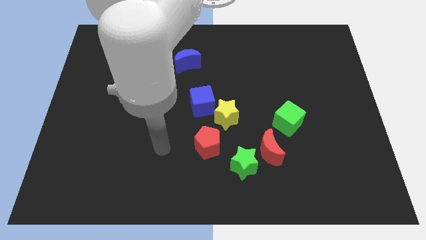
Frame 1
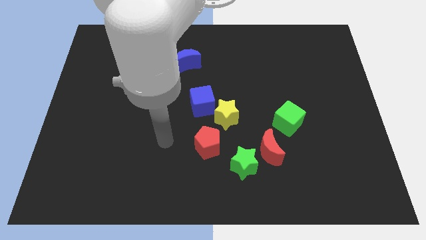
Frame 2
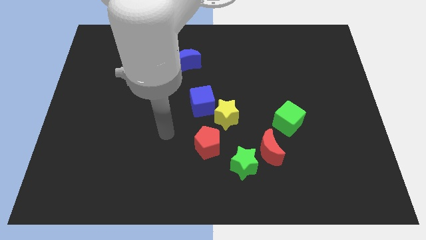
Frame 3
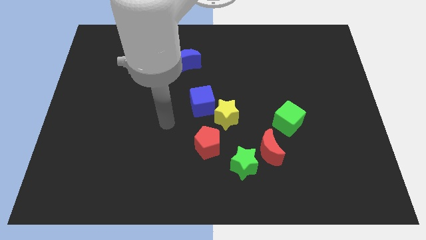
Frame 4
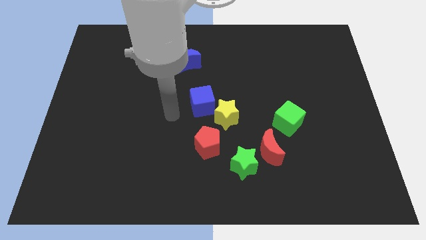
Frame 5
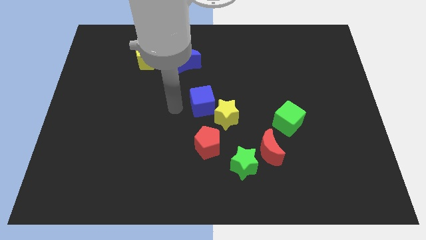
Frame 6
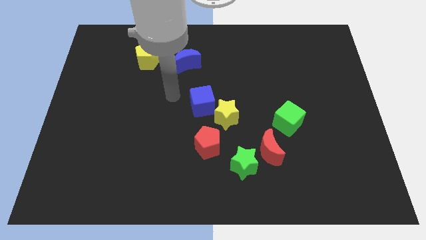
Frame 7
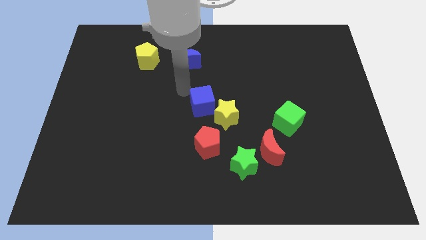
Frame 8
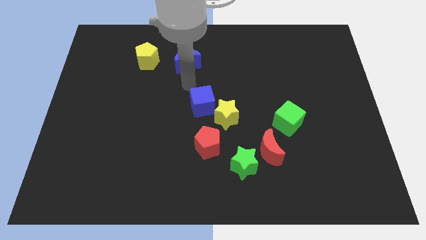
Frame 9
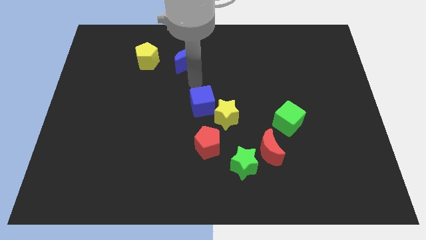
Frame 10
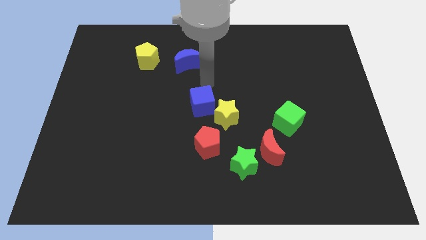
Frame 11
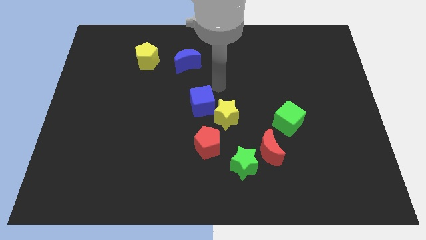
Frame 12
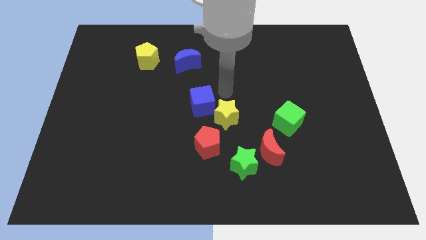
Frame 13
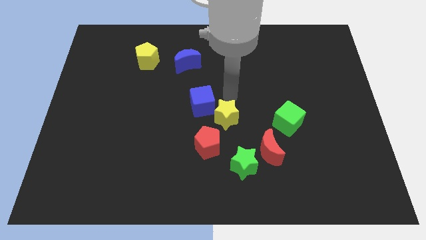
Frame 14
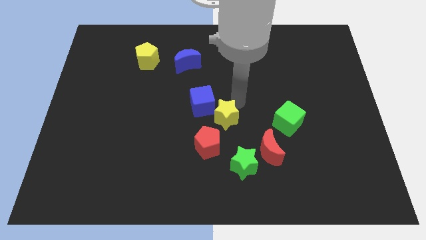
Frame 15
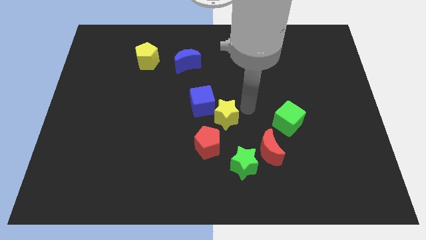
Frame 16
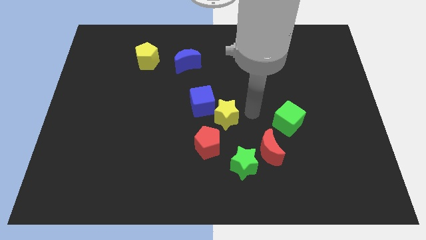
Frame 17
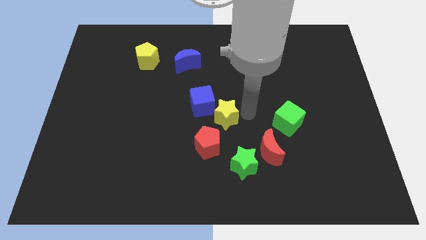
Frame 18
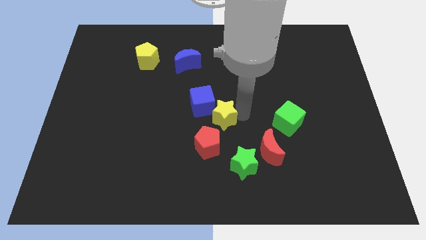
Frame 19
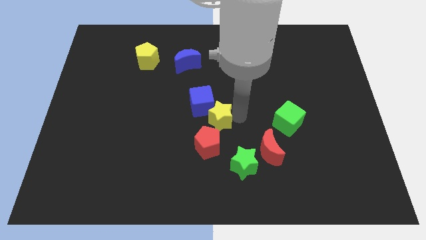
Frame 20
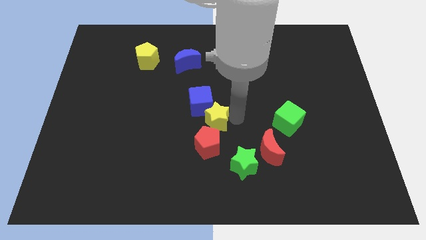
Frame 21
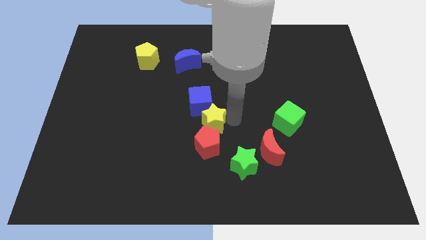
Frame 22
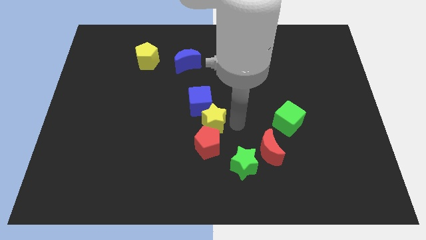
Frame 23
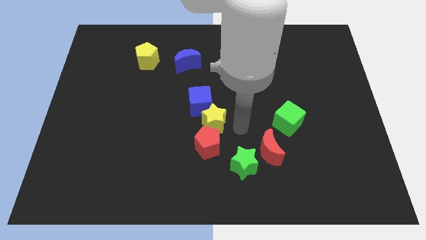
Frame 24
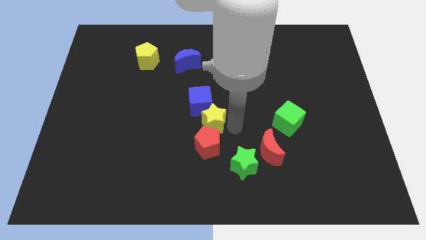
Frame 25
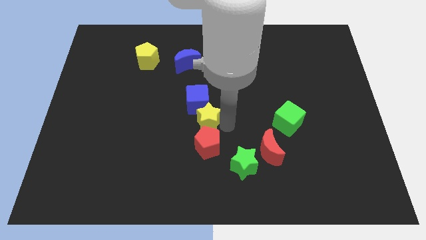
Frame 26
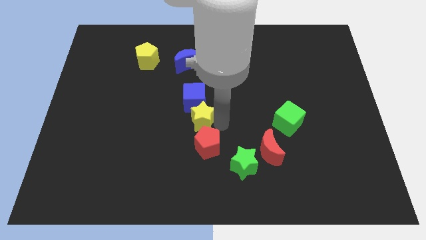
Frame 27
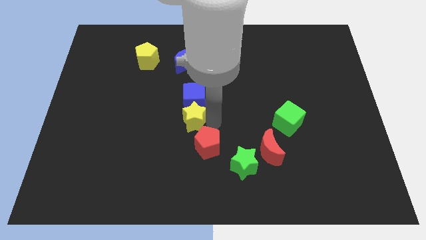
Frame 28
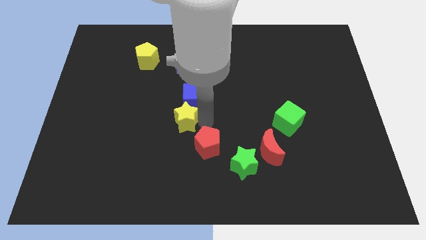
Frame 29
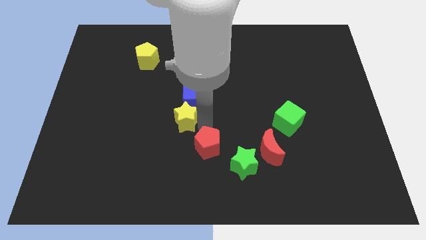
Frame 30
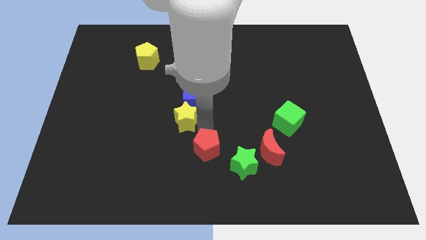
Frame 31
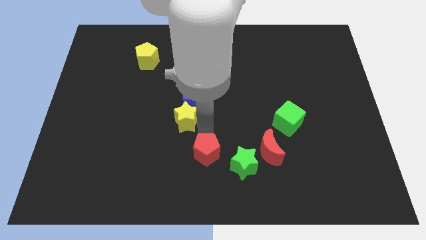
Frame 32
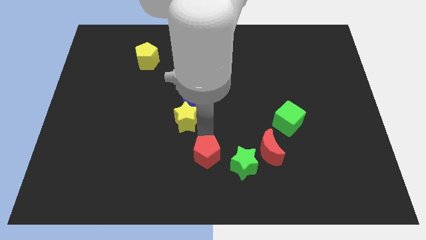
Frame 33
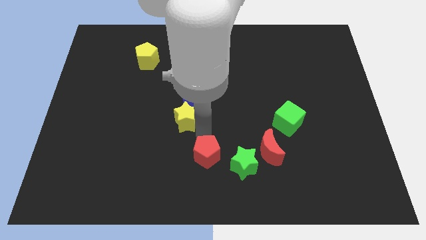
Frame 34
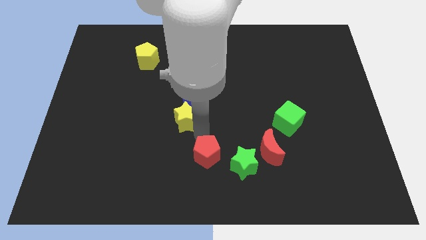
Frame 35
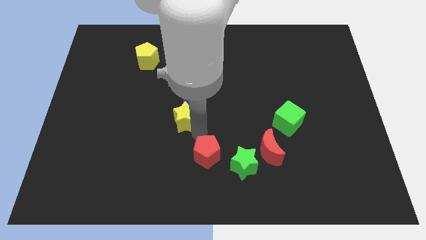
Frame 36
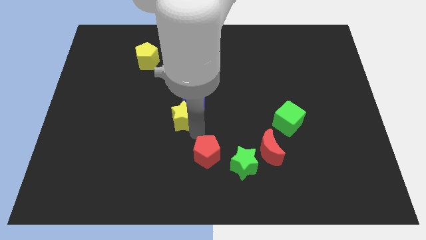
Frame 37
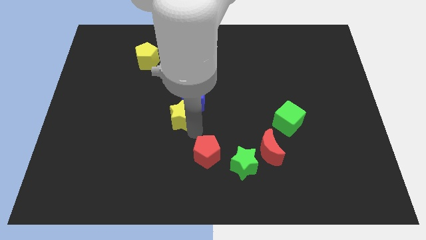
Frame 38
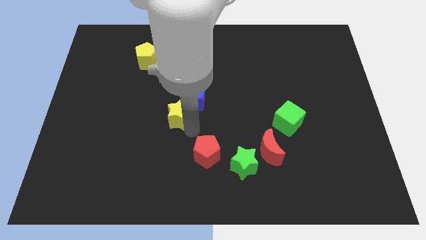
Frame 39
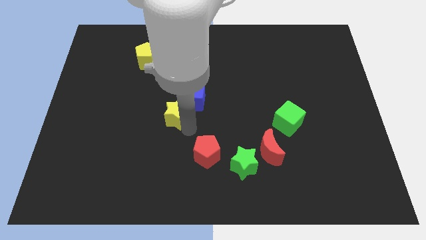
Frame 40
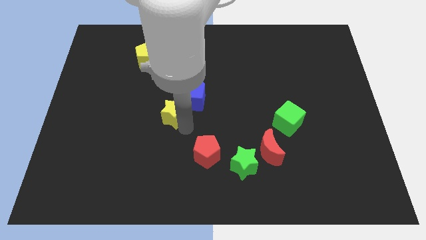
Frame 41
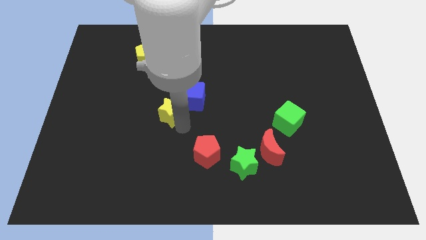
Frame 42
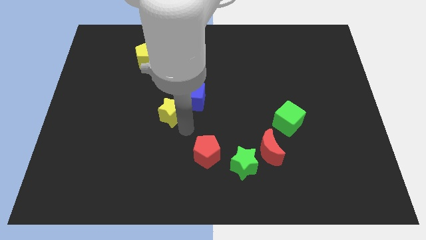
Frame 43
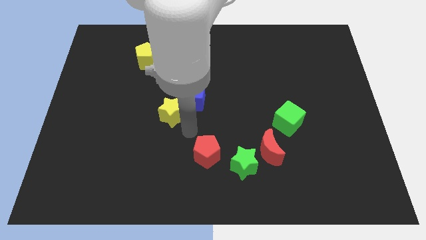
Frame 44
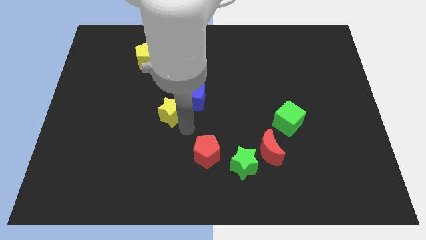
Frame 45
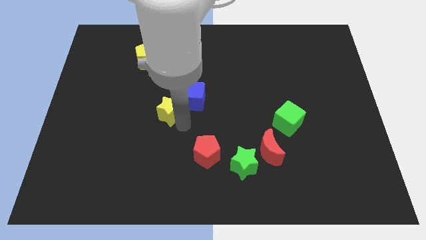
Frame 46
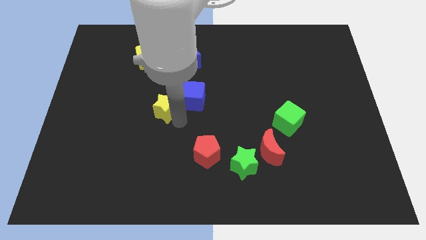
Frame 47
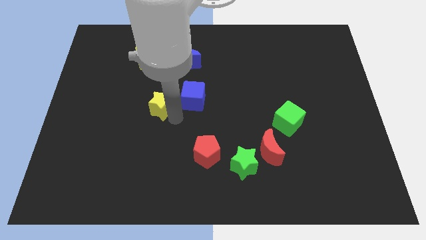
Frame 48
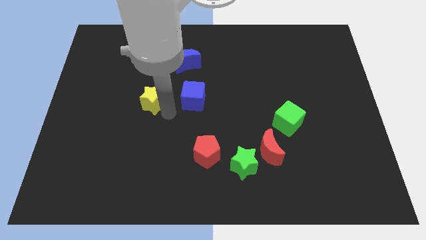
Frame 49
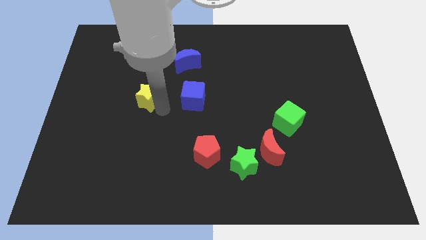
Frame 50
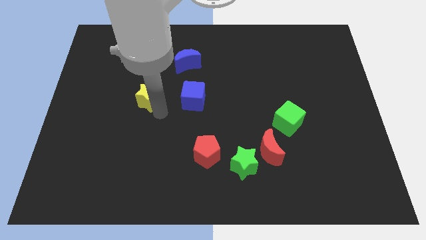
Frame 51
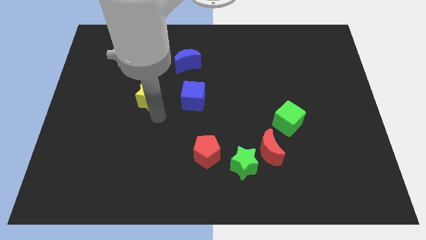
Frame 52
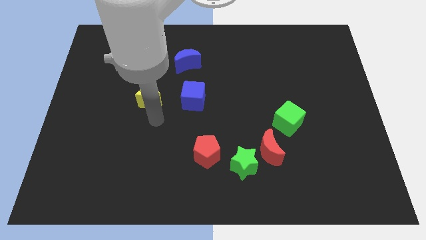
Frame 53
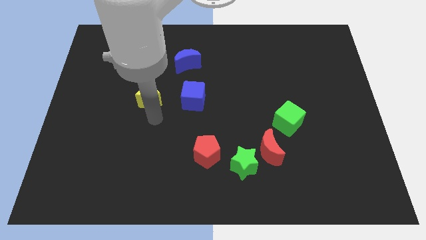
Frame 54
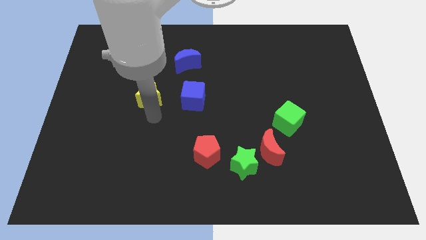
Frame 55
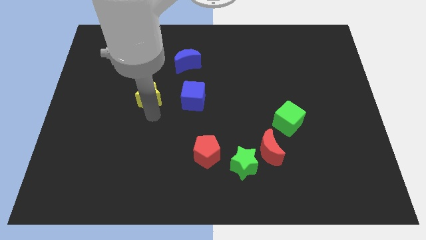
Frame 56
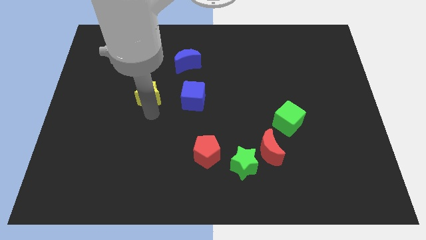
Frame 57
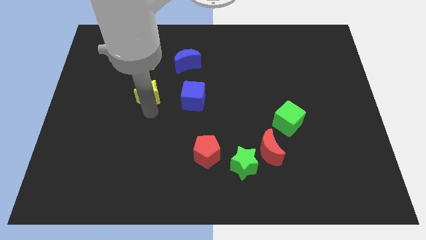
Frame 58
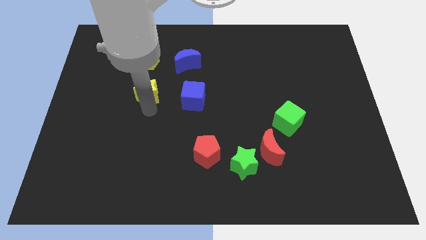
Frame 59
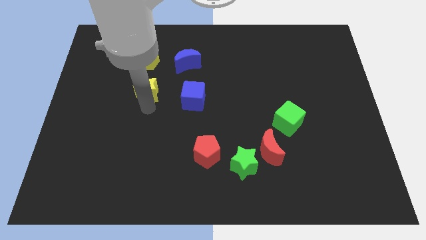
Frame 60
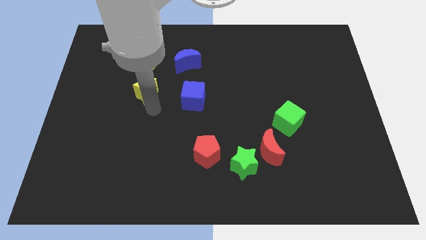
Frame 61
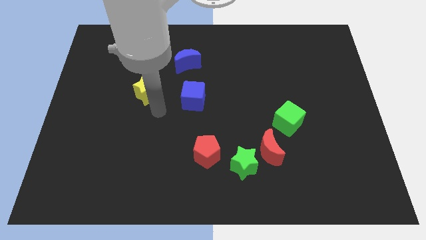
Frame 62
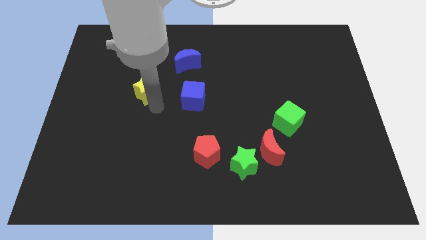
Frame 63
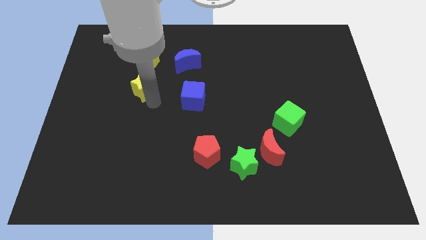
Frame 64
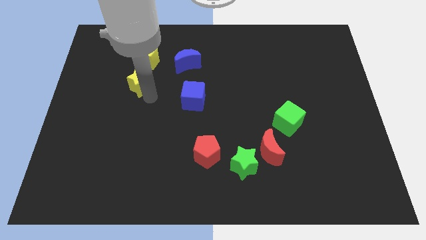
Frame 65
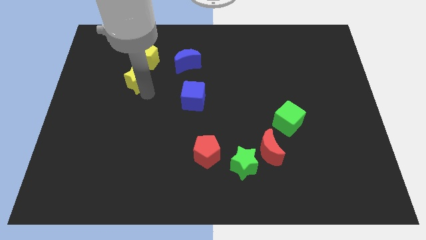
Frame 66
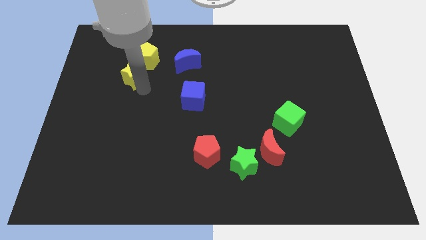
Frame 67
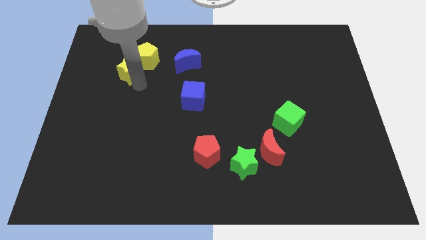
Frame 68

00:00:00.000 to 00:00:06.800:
slide the yellow star just left of the blue moon

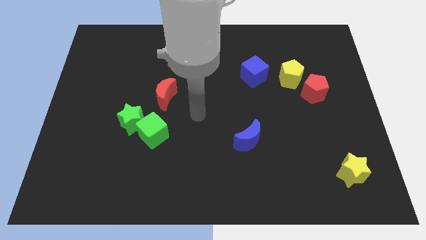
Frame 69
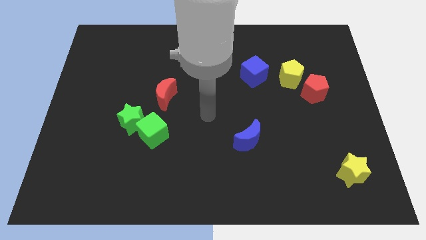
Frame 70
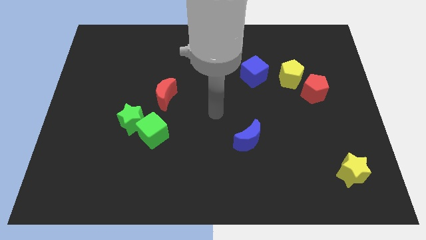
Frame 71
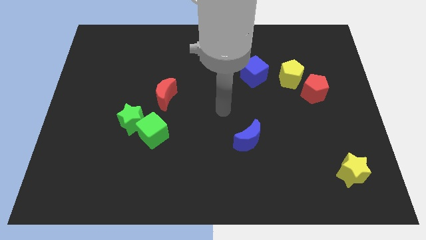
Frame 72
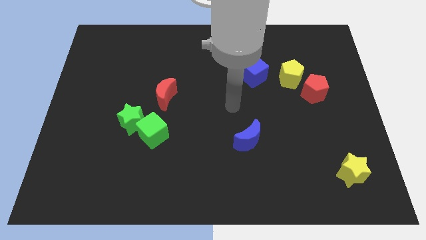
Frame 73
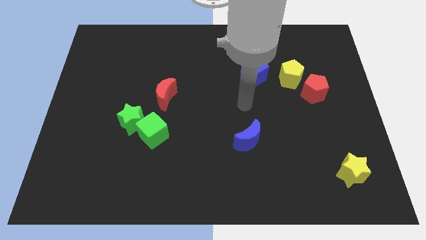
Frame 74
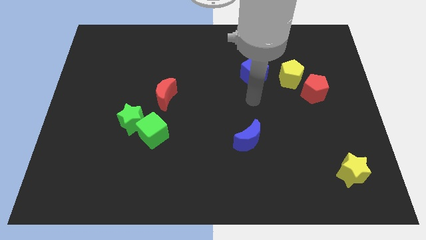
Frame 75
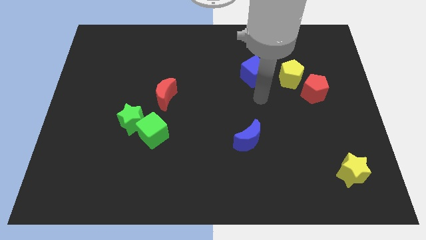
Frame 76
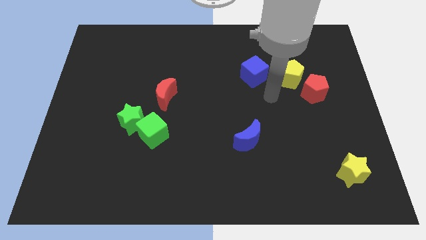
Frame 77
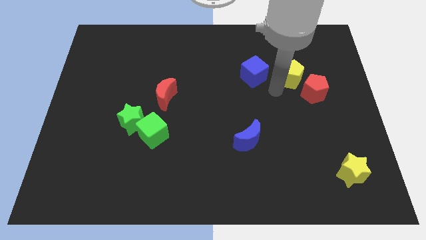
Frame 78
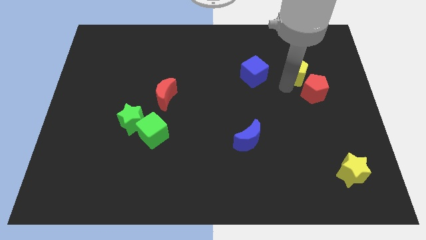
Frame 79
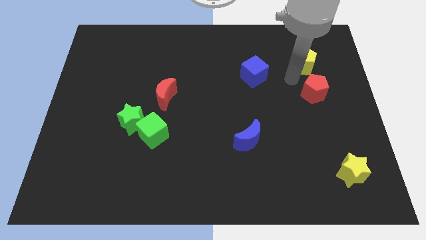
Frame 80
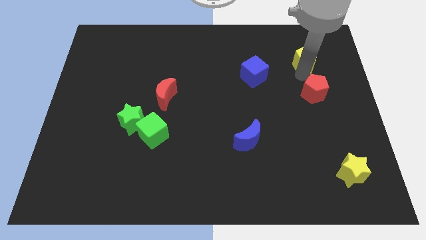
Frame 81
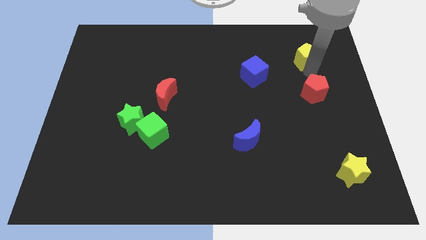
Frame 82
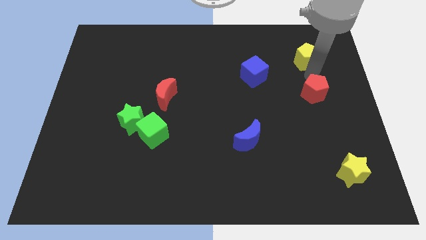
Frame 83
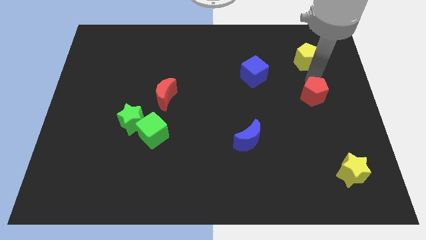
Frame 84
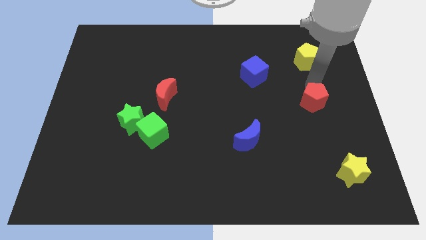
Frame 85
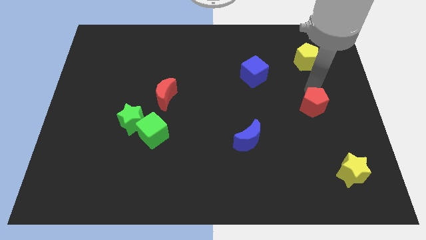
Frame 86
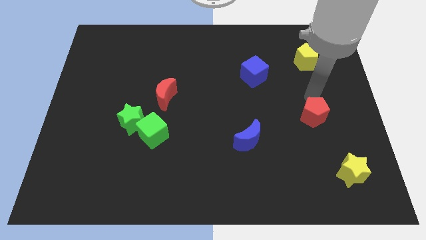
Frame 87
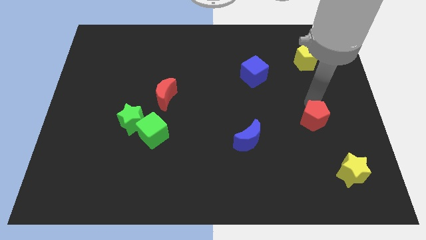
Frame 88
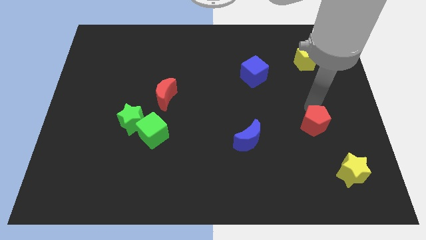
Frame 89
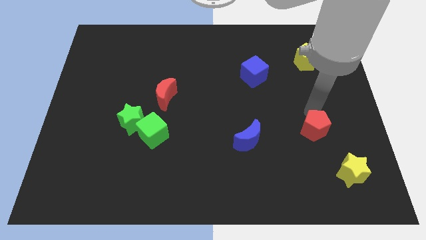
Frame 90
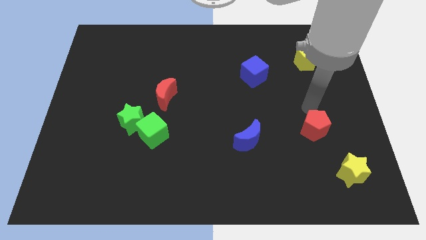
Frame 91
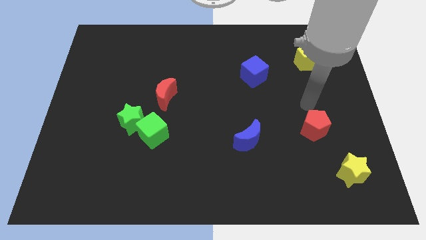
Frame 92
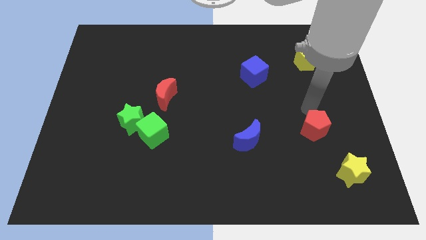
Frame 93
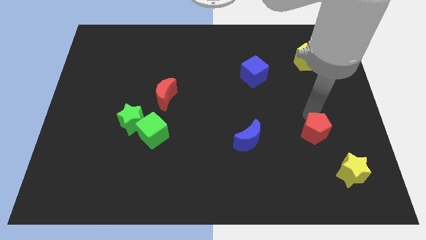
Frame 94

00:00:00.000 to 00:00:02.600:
slide the red pentagon to the top left of the yellow star
